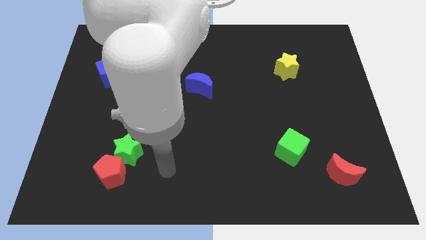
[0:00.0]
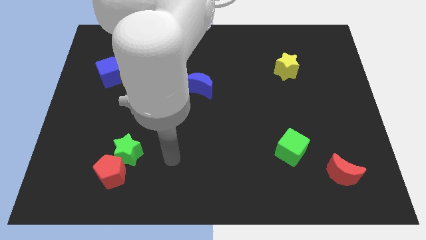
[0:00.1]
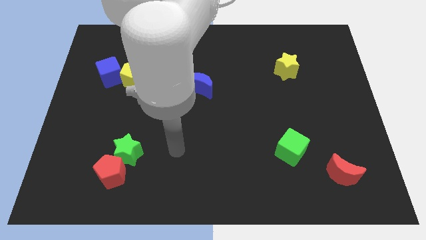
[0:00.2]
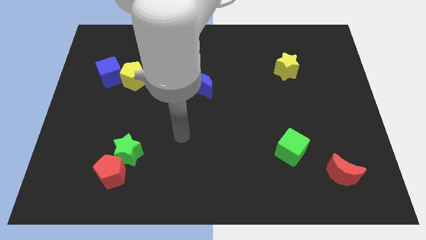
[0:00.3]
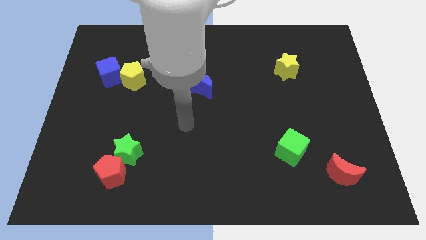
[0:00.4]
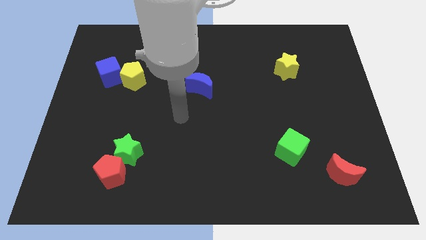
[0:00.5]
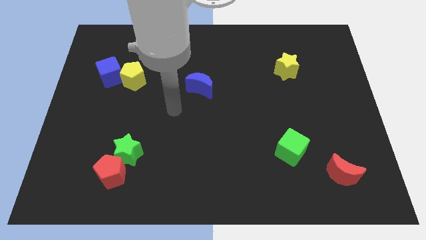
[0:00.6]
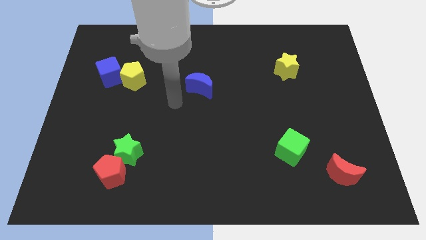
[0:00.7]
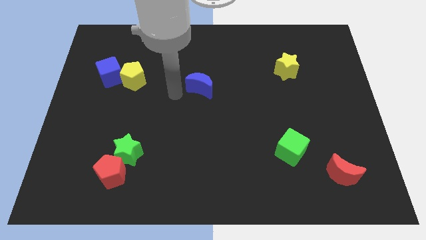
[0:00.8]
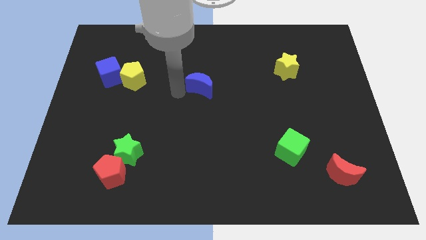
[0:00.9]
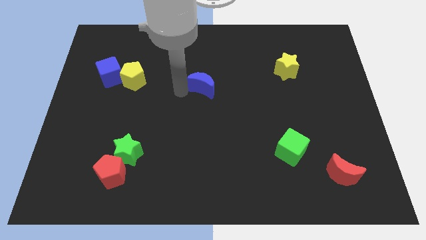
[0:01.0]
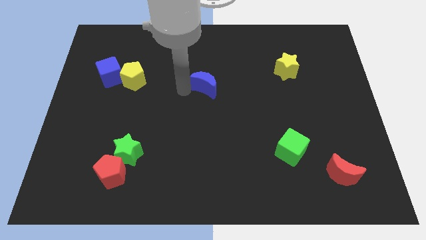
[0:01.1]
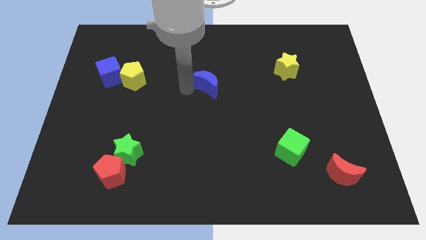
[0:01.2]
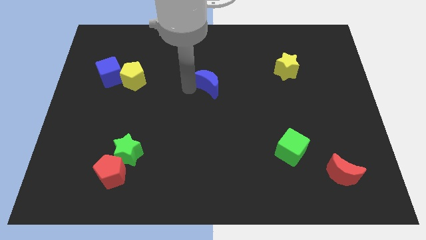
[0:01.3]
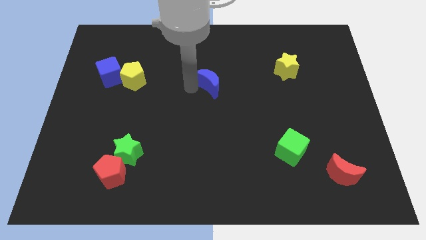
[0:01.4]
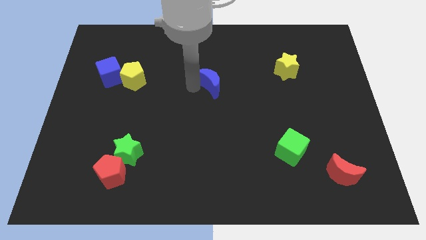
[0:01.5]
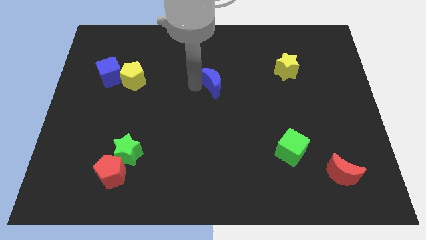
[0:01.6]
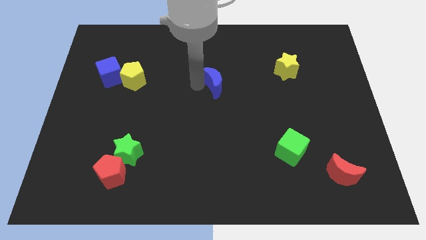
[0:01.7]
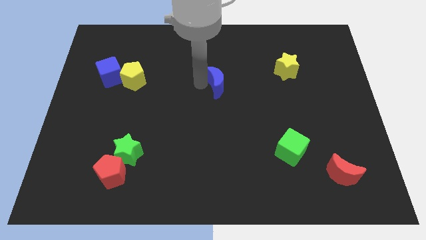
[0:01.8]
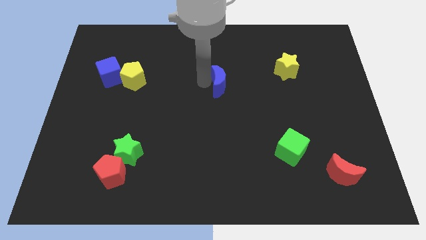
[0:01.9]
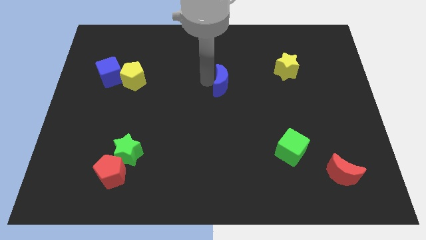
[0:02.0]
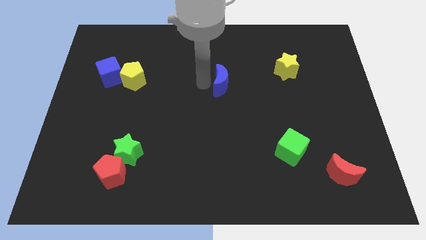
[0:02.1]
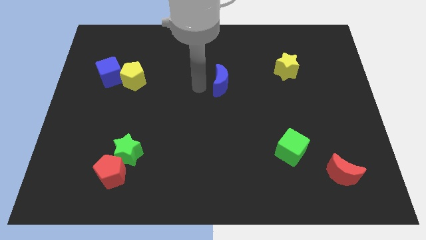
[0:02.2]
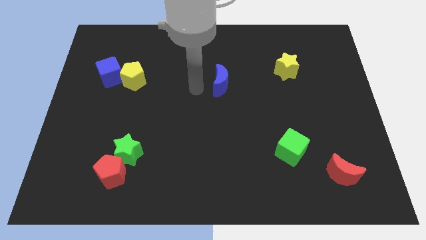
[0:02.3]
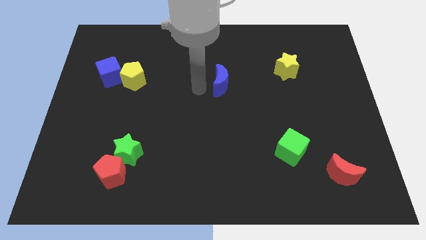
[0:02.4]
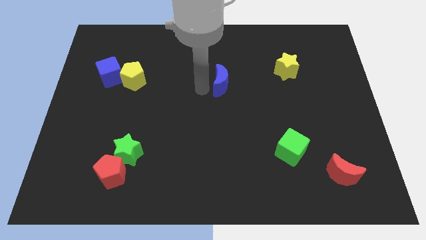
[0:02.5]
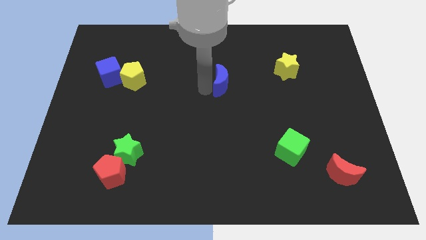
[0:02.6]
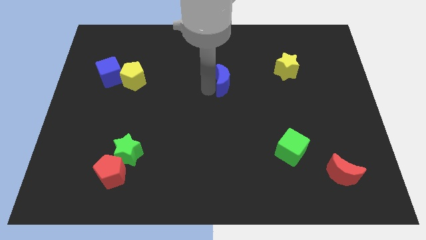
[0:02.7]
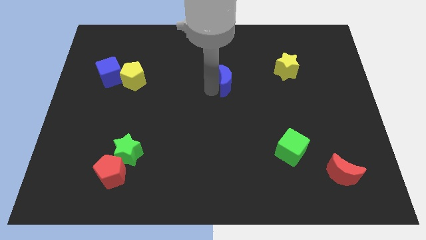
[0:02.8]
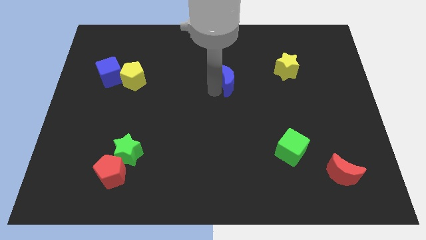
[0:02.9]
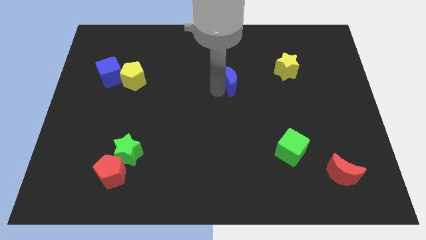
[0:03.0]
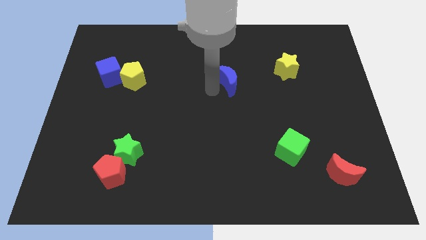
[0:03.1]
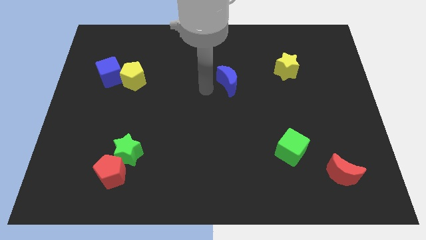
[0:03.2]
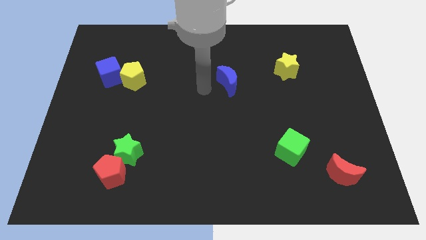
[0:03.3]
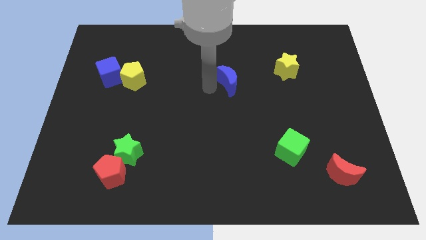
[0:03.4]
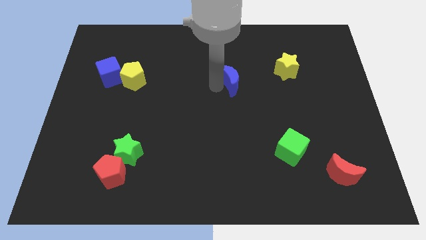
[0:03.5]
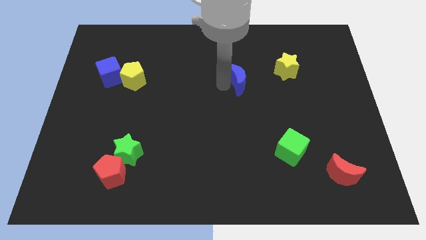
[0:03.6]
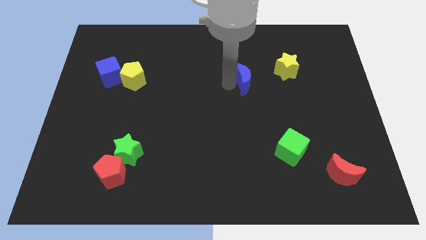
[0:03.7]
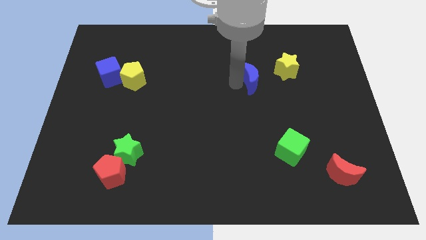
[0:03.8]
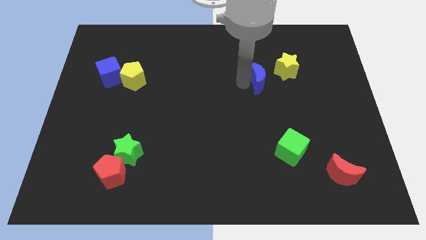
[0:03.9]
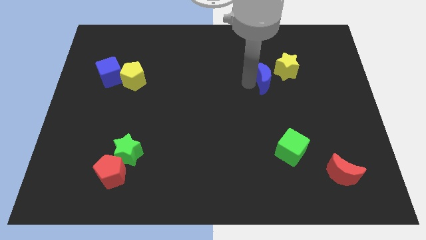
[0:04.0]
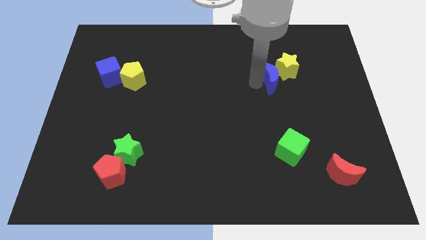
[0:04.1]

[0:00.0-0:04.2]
slide the blue moon close to the yellow star

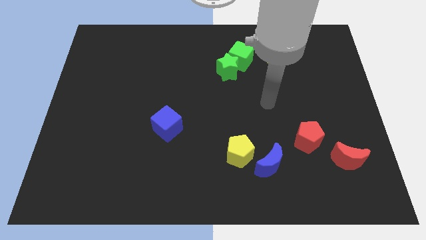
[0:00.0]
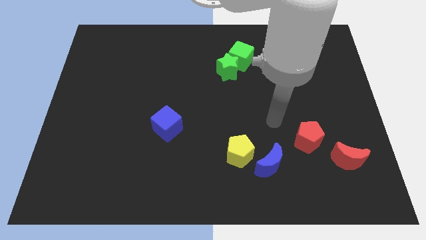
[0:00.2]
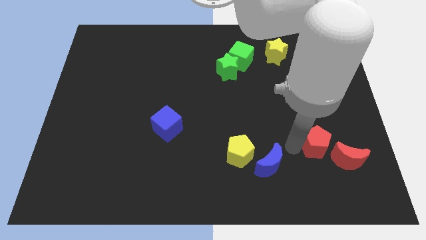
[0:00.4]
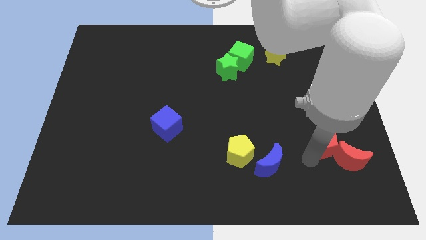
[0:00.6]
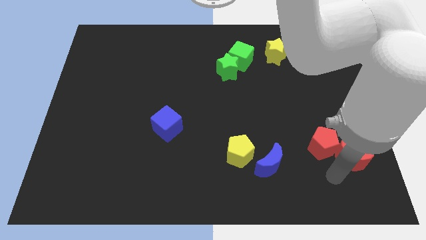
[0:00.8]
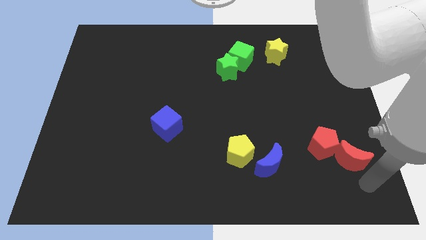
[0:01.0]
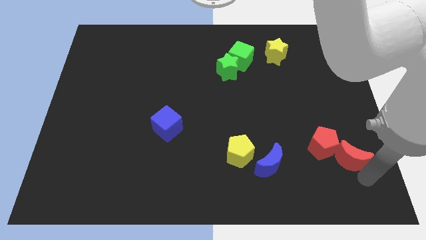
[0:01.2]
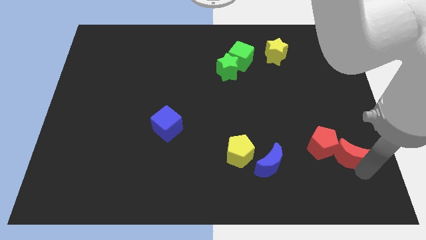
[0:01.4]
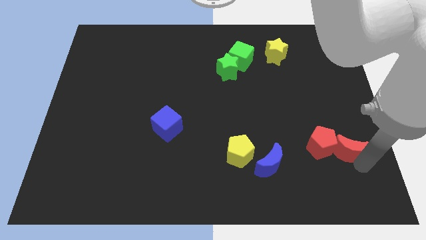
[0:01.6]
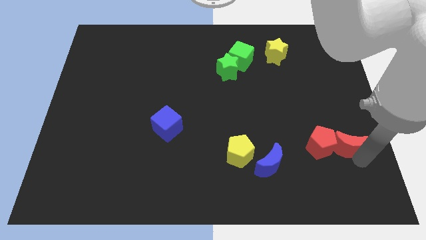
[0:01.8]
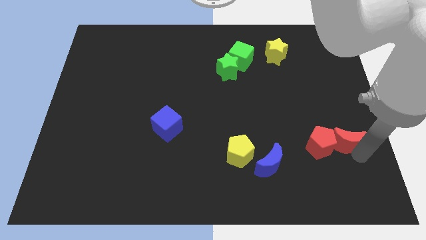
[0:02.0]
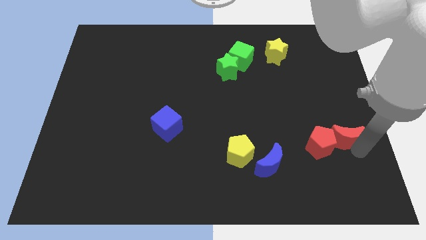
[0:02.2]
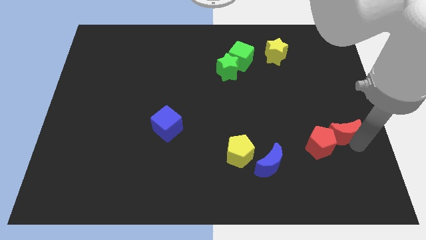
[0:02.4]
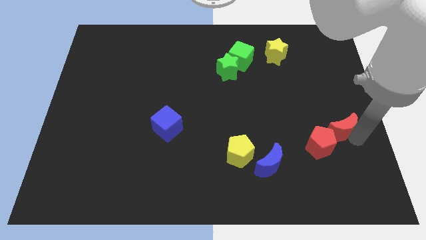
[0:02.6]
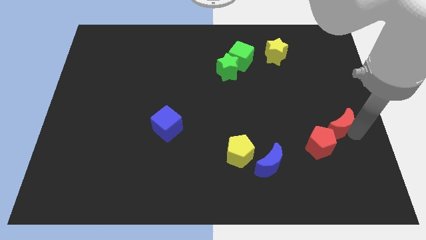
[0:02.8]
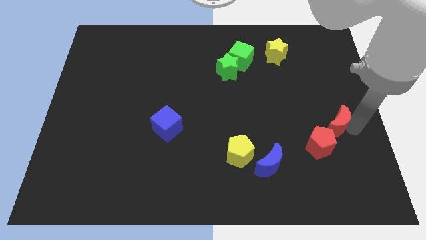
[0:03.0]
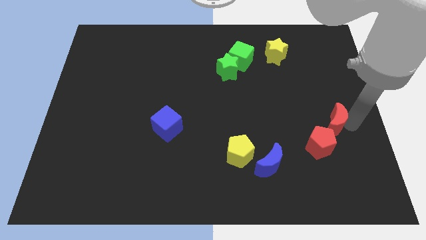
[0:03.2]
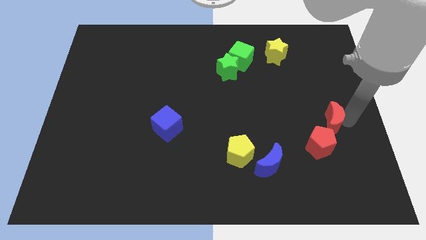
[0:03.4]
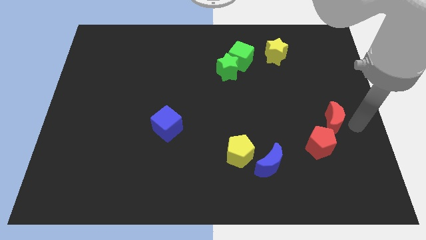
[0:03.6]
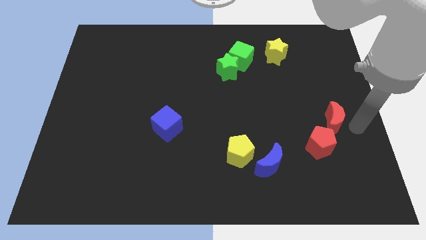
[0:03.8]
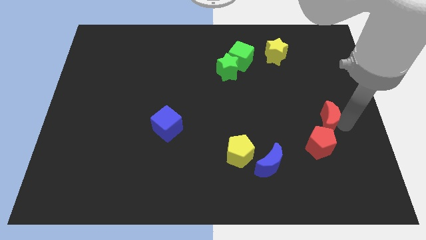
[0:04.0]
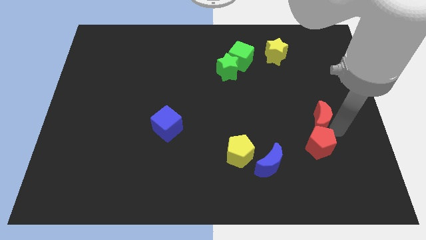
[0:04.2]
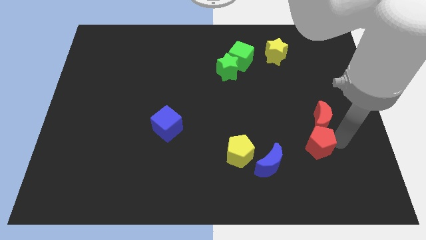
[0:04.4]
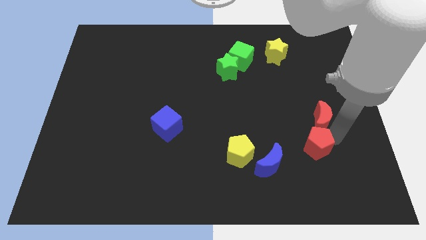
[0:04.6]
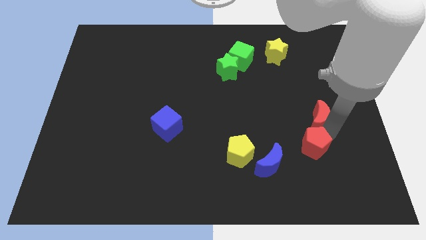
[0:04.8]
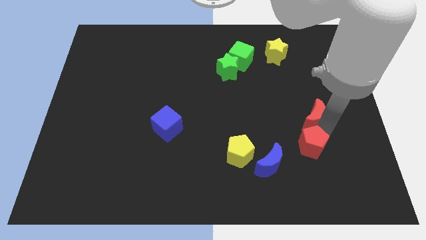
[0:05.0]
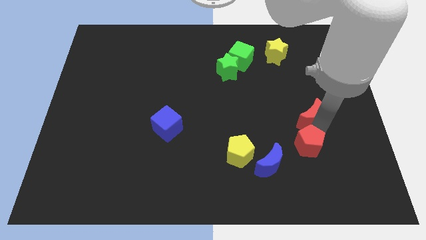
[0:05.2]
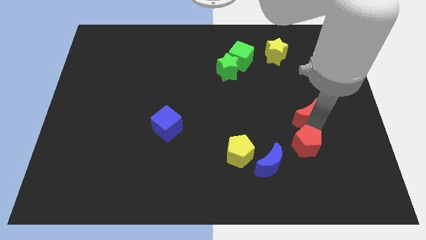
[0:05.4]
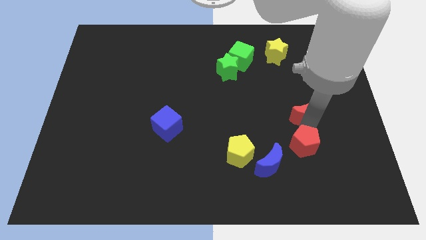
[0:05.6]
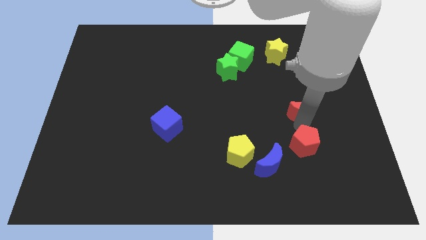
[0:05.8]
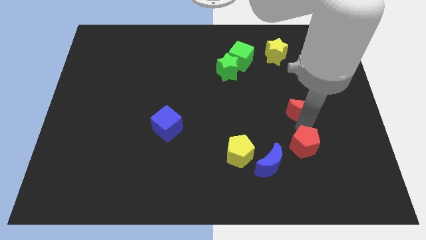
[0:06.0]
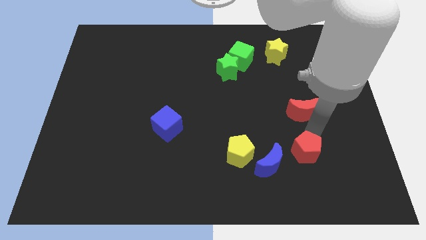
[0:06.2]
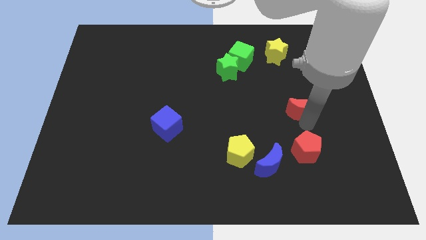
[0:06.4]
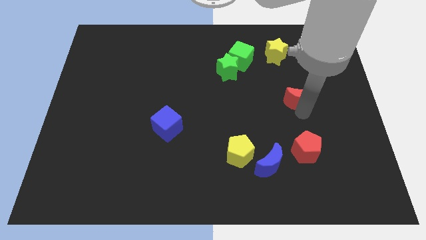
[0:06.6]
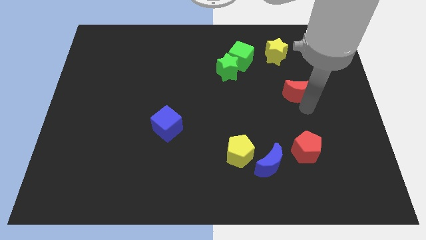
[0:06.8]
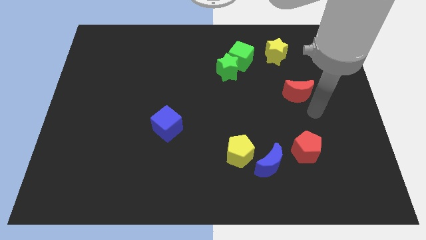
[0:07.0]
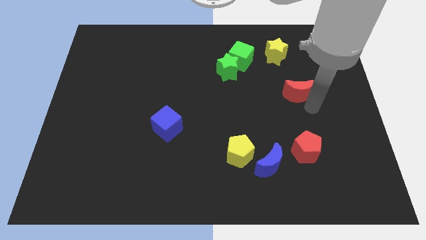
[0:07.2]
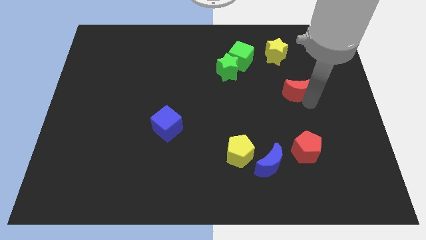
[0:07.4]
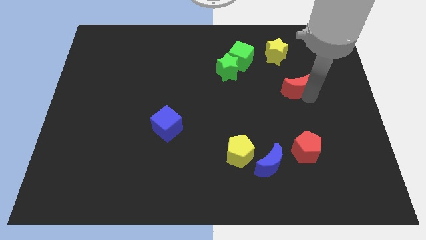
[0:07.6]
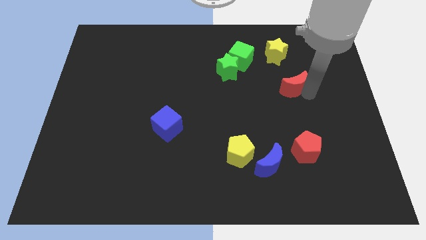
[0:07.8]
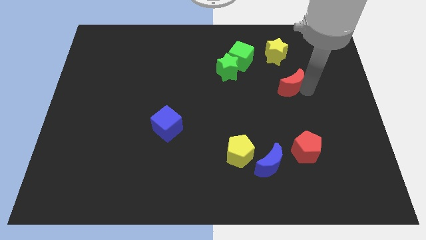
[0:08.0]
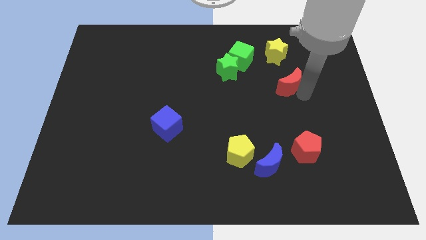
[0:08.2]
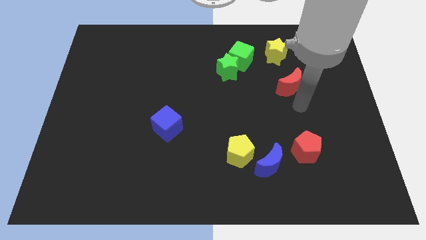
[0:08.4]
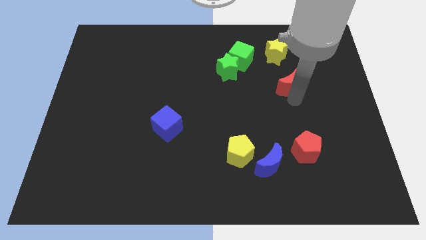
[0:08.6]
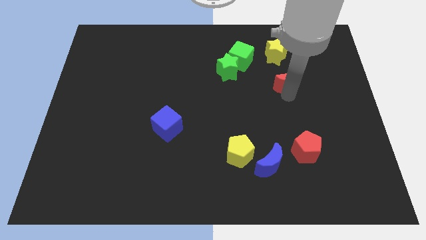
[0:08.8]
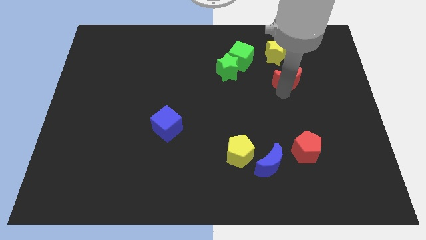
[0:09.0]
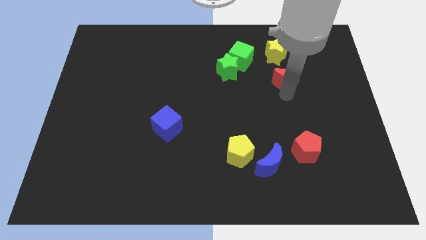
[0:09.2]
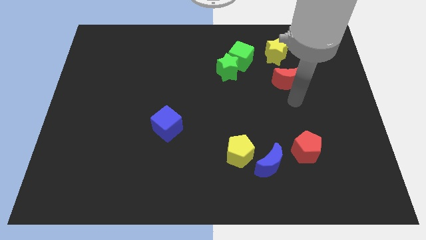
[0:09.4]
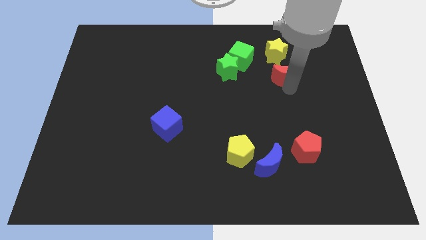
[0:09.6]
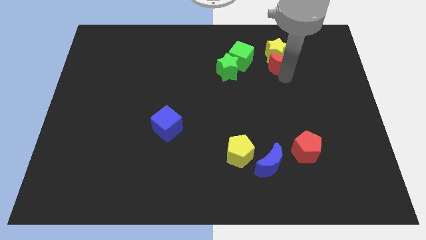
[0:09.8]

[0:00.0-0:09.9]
slide the red moon next to the yellow star
